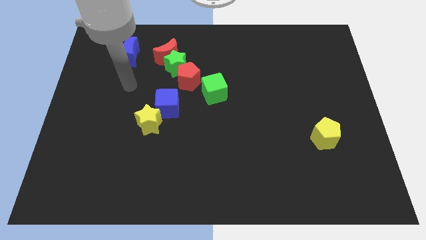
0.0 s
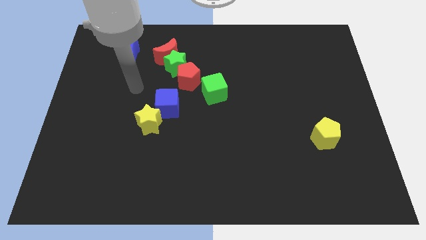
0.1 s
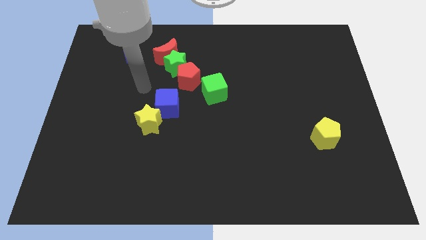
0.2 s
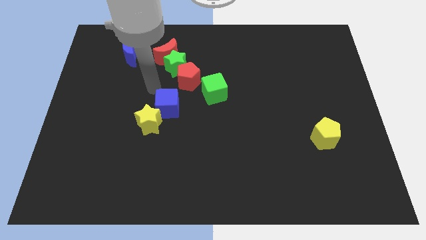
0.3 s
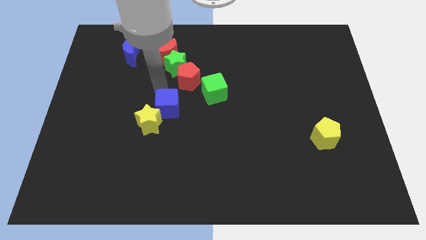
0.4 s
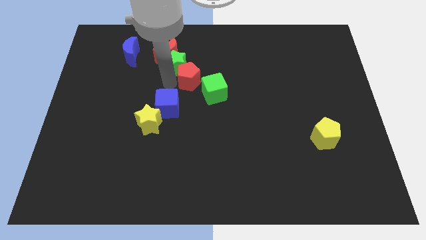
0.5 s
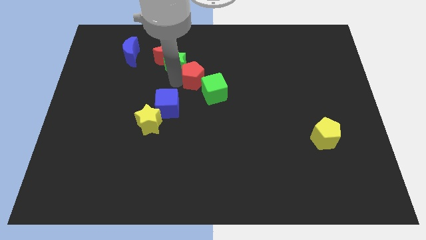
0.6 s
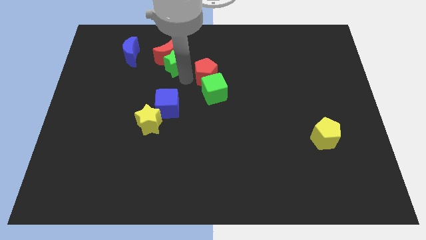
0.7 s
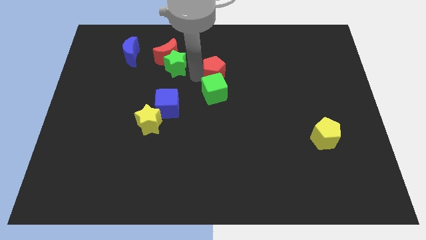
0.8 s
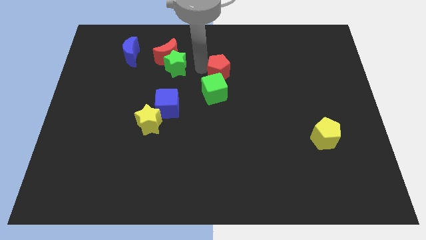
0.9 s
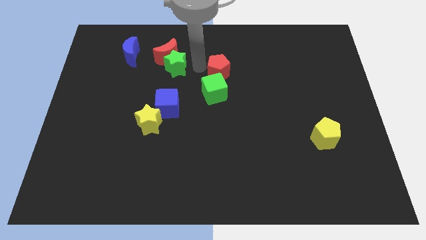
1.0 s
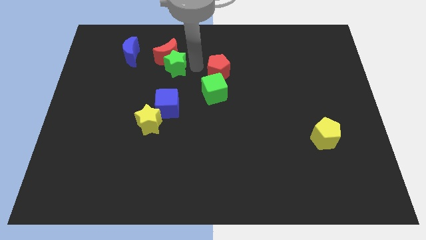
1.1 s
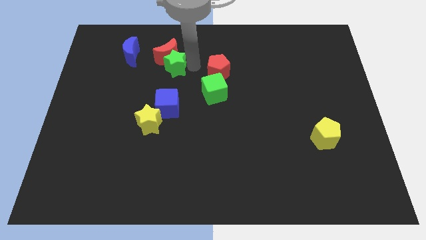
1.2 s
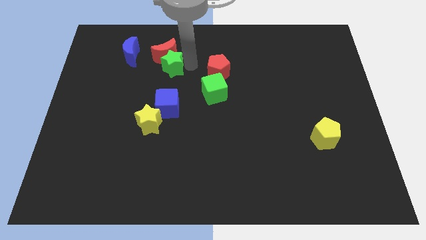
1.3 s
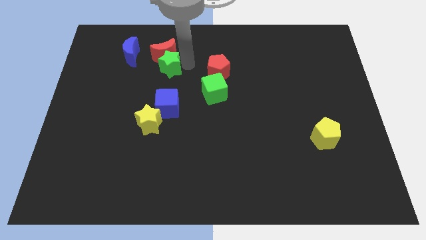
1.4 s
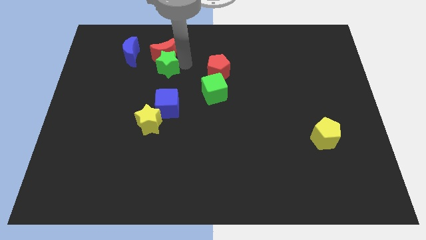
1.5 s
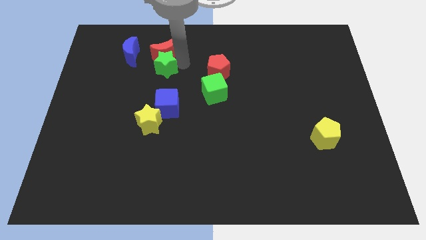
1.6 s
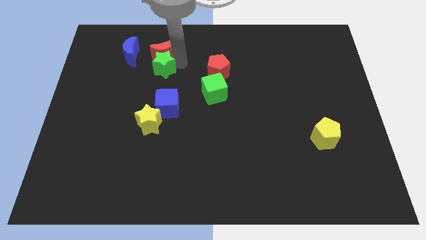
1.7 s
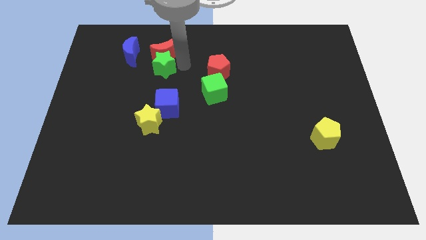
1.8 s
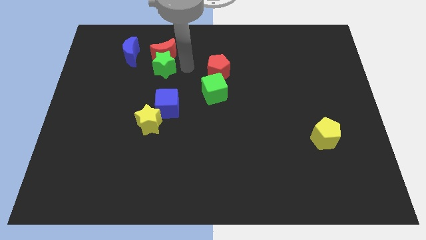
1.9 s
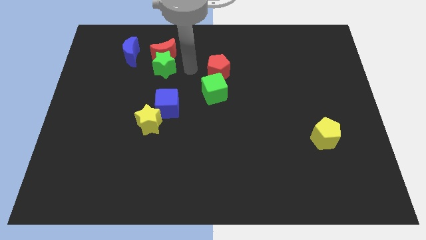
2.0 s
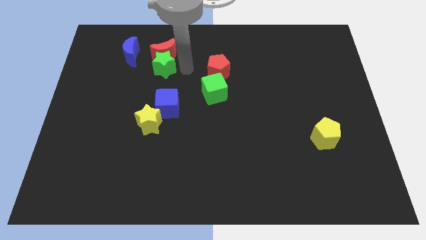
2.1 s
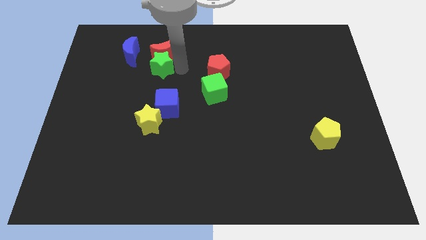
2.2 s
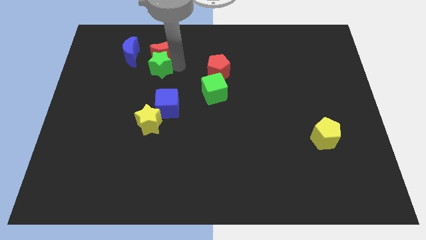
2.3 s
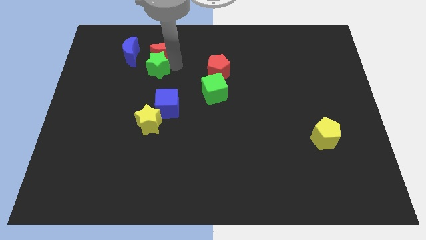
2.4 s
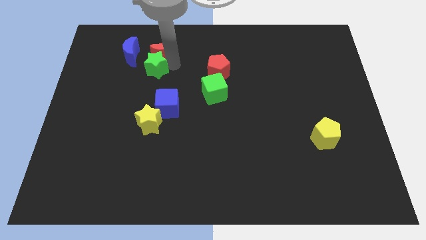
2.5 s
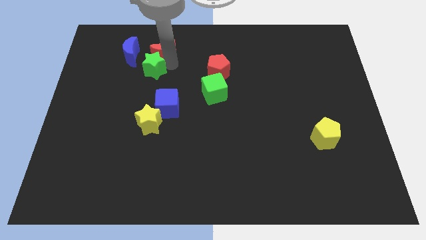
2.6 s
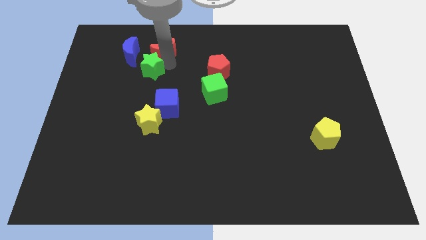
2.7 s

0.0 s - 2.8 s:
separate the green star from the red moon and red pentagon

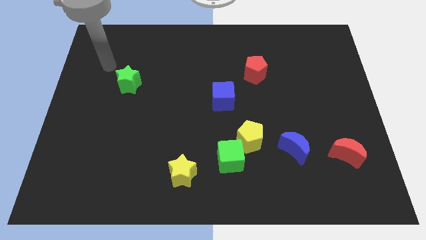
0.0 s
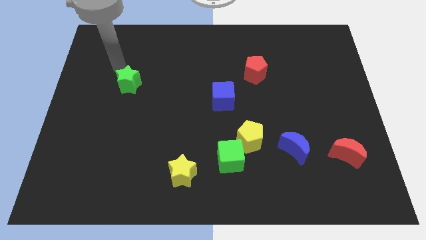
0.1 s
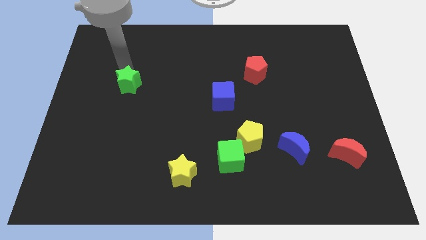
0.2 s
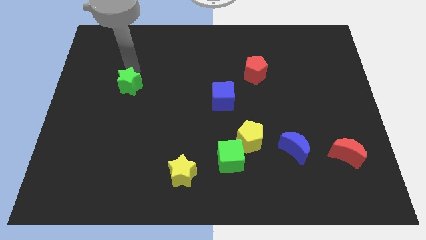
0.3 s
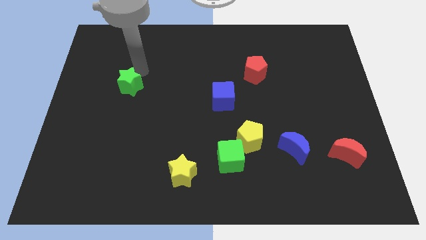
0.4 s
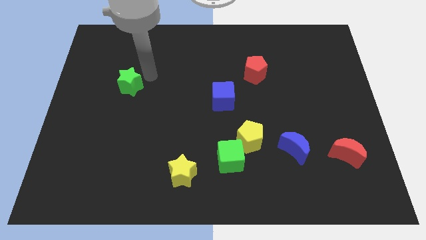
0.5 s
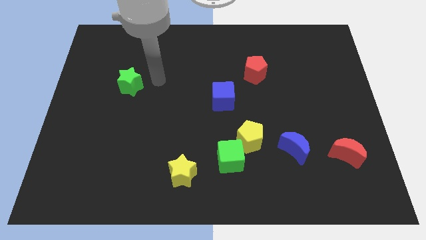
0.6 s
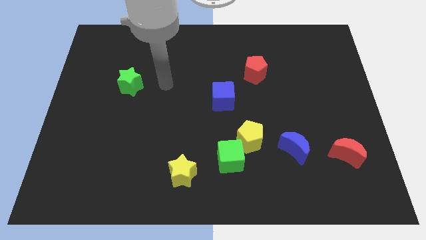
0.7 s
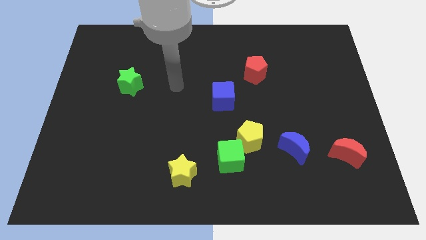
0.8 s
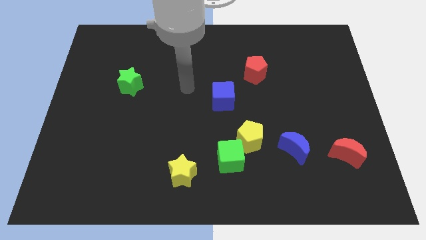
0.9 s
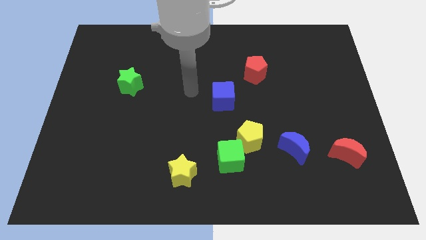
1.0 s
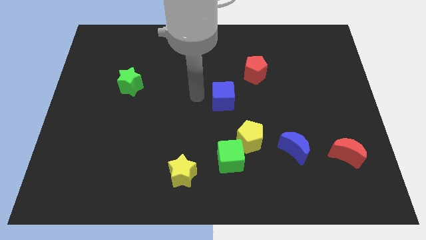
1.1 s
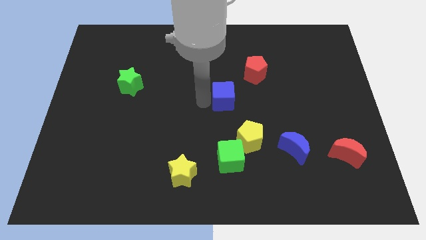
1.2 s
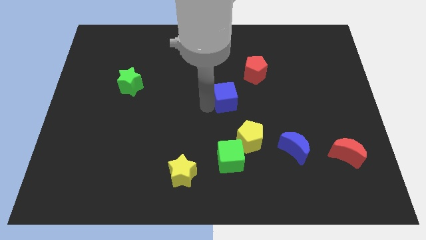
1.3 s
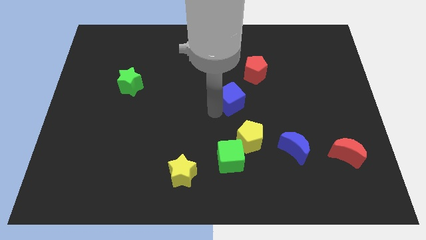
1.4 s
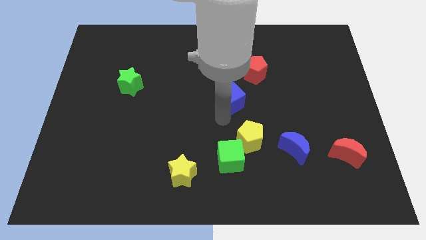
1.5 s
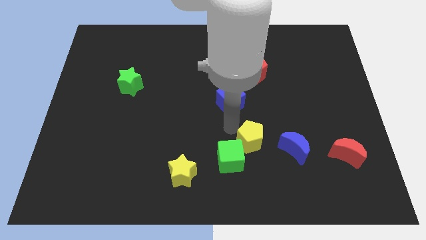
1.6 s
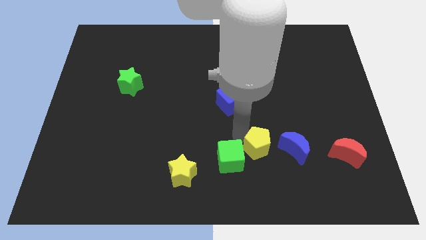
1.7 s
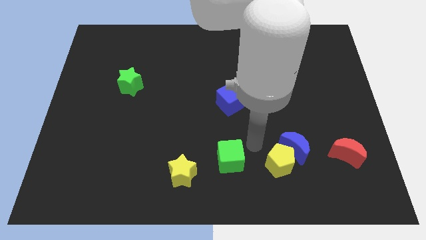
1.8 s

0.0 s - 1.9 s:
move the green cube away from the yellow pentagon

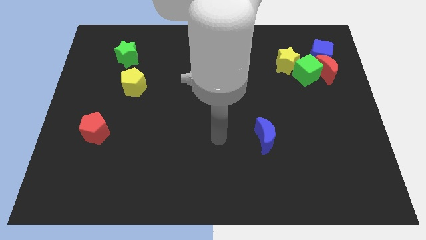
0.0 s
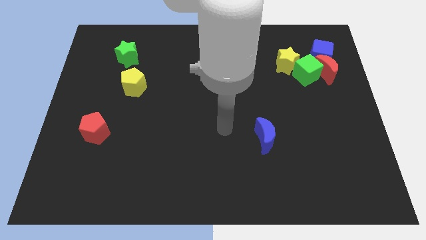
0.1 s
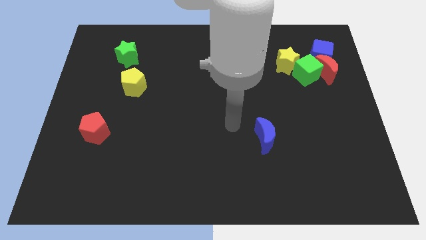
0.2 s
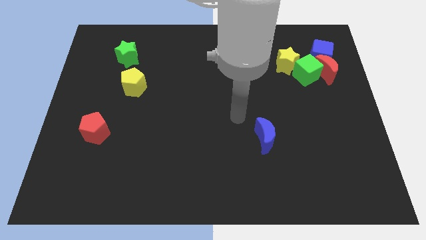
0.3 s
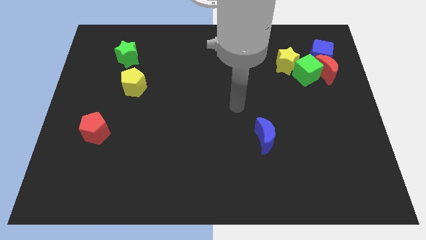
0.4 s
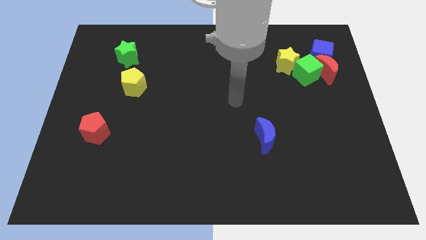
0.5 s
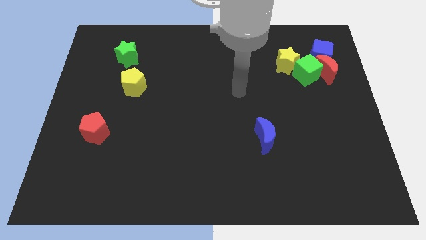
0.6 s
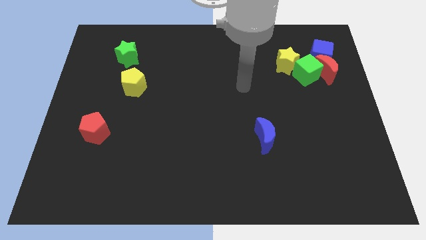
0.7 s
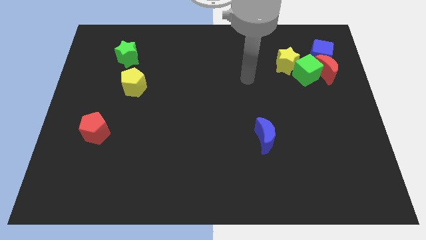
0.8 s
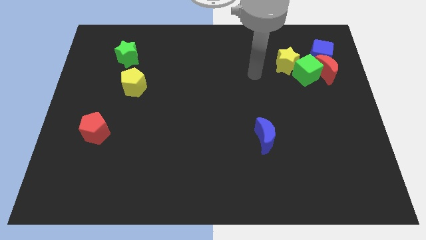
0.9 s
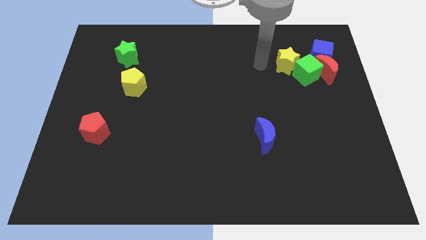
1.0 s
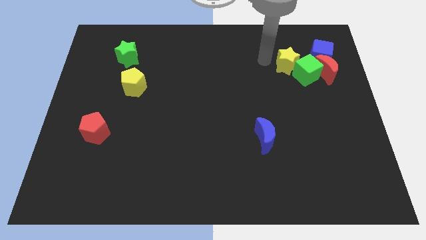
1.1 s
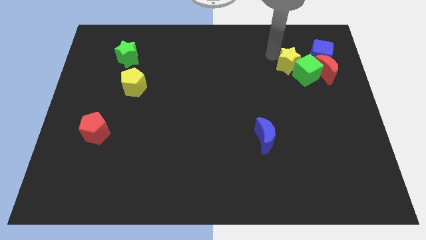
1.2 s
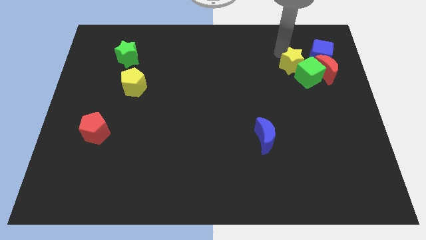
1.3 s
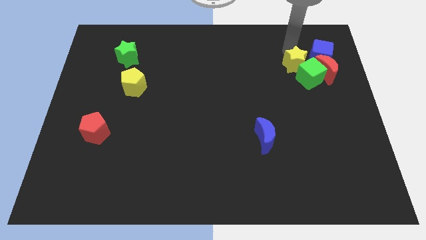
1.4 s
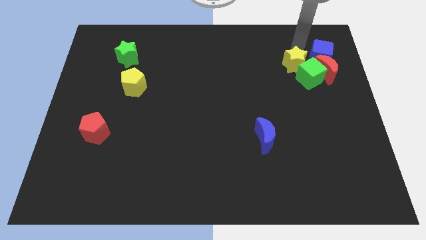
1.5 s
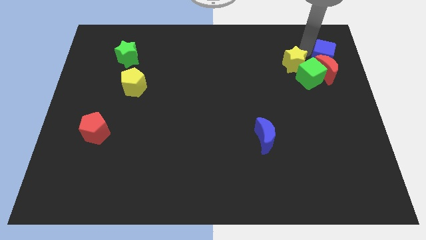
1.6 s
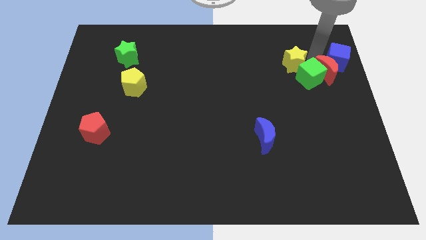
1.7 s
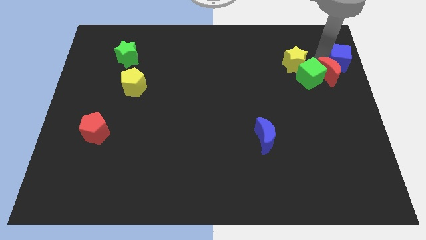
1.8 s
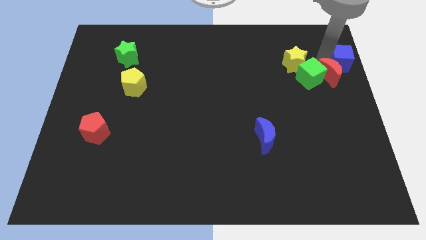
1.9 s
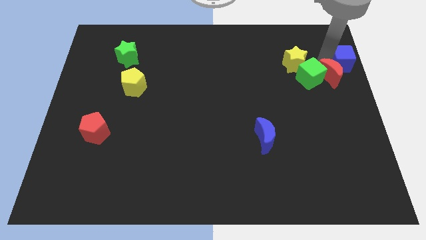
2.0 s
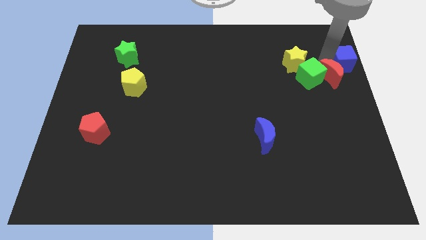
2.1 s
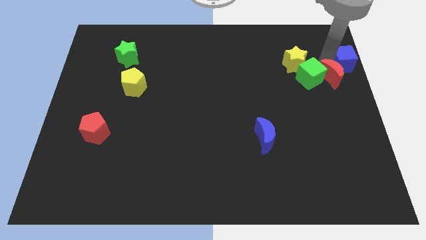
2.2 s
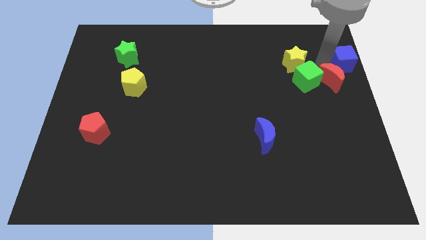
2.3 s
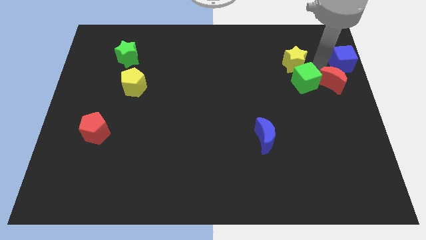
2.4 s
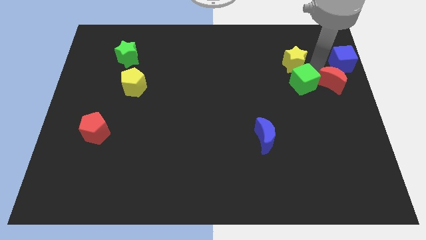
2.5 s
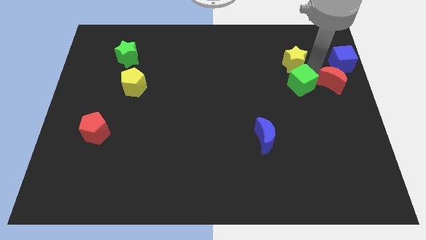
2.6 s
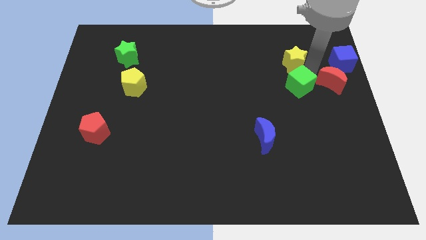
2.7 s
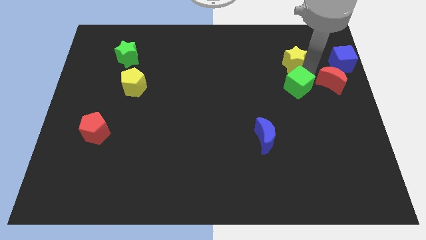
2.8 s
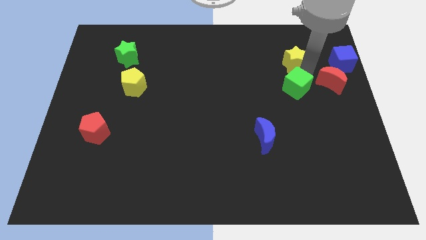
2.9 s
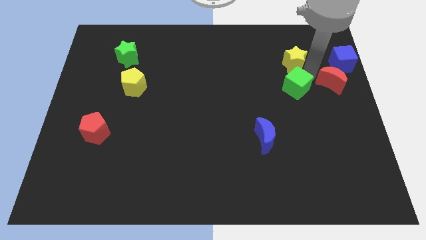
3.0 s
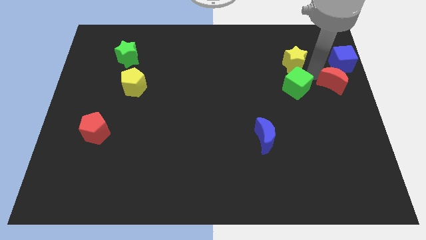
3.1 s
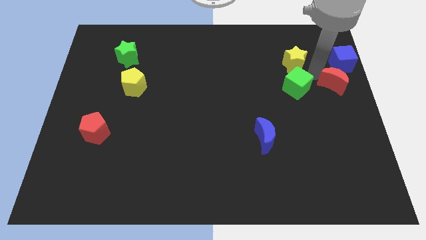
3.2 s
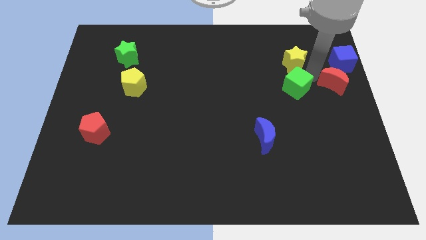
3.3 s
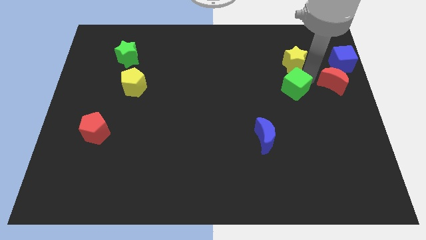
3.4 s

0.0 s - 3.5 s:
pull the green cube apart from the clump

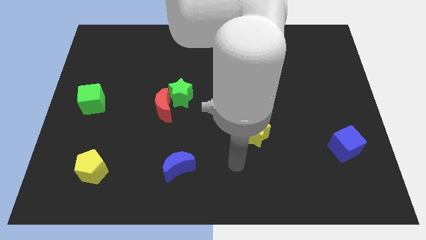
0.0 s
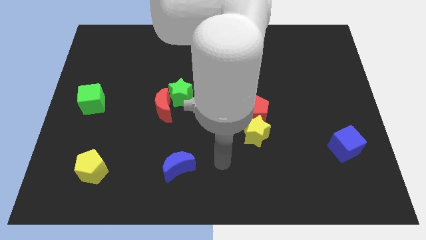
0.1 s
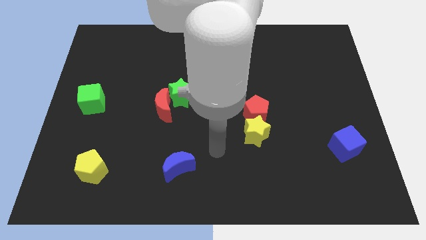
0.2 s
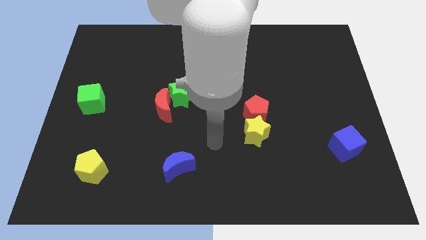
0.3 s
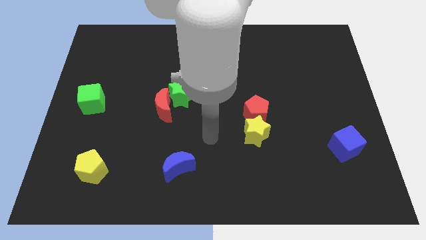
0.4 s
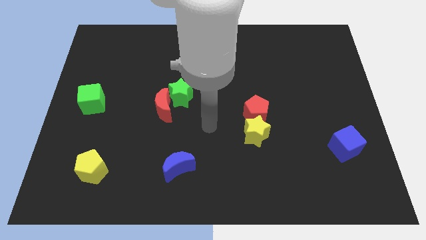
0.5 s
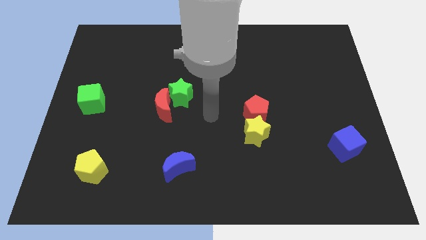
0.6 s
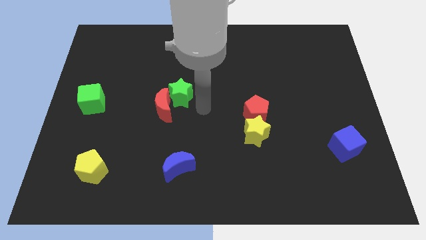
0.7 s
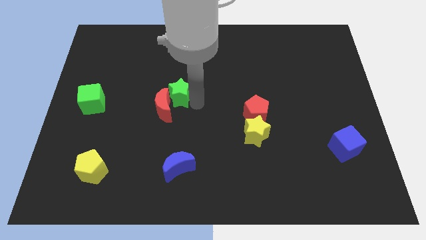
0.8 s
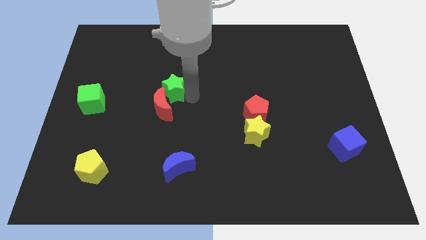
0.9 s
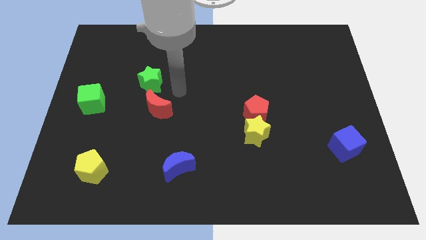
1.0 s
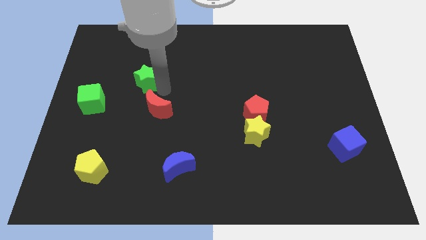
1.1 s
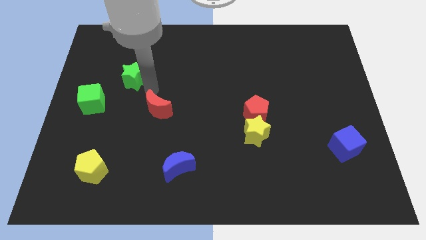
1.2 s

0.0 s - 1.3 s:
move the red moon away from the green star
